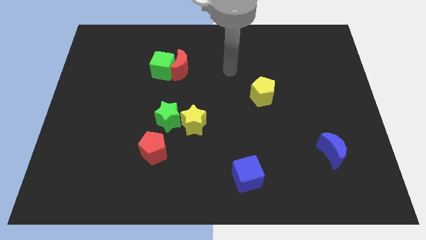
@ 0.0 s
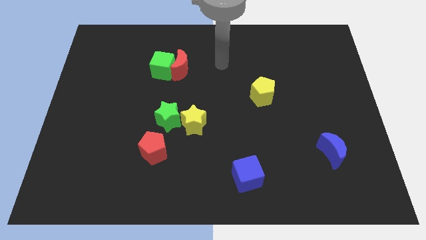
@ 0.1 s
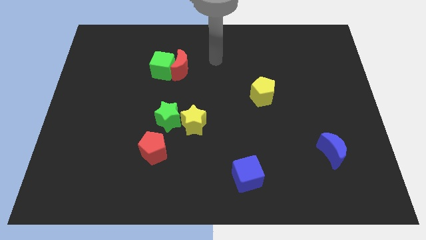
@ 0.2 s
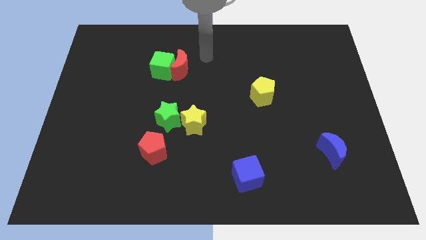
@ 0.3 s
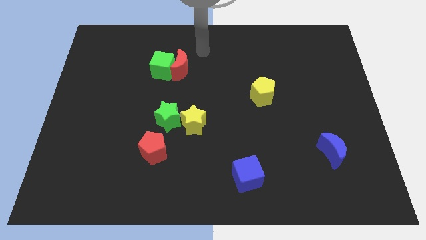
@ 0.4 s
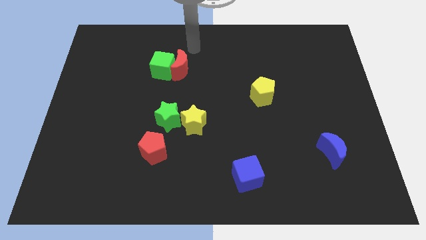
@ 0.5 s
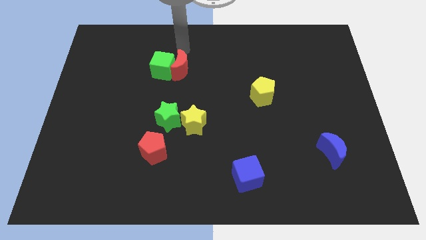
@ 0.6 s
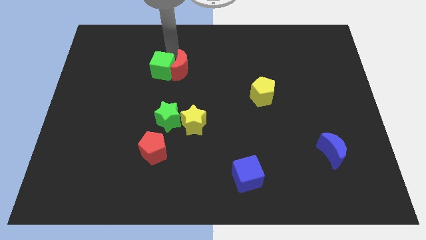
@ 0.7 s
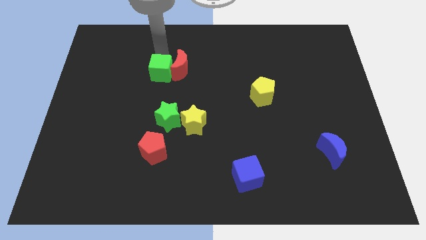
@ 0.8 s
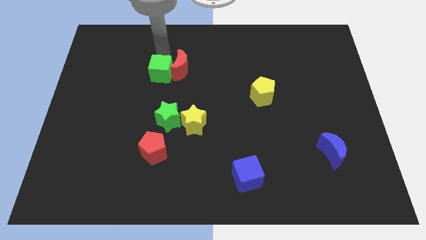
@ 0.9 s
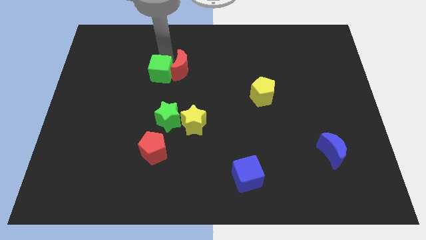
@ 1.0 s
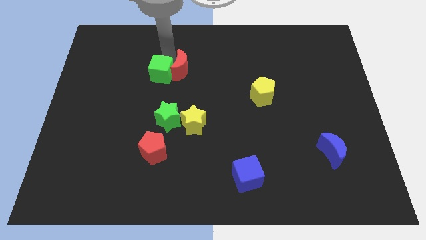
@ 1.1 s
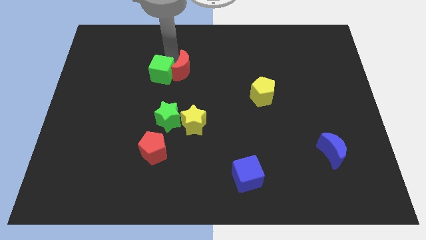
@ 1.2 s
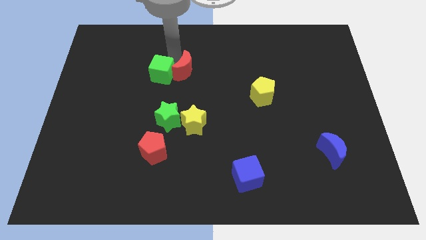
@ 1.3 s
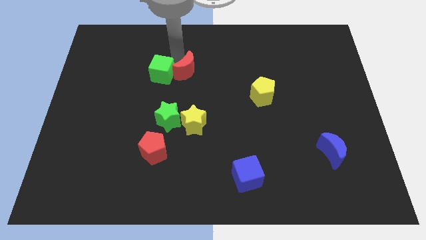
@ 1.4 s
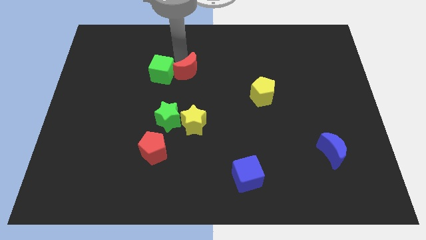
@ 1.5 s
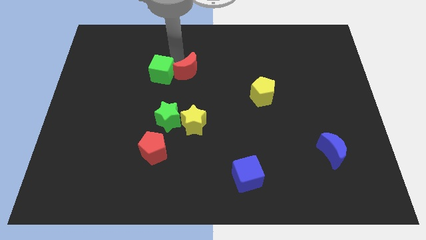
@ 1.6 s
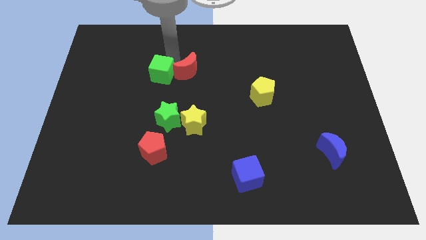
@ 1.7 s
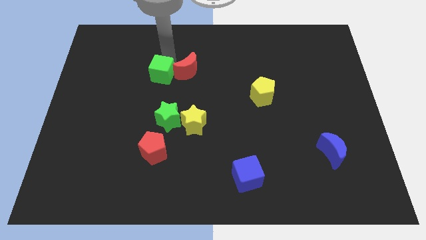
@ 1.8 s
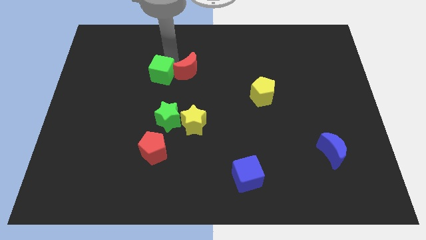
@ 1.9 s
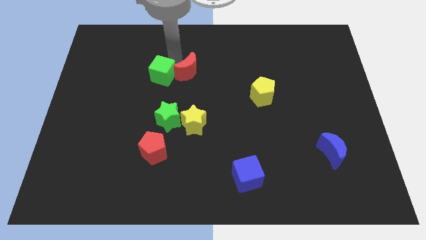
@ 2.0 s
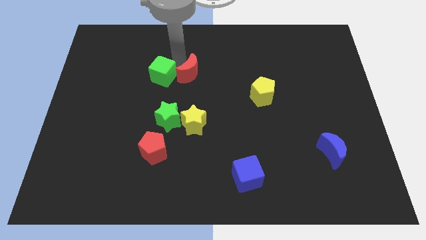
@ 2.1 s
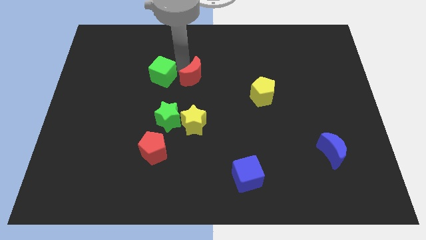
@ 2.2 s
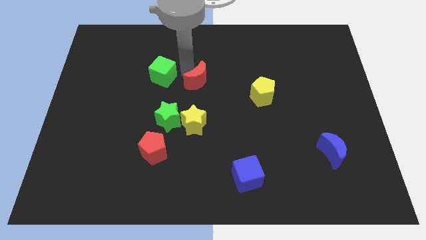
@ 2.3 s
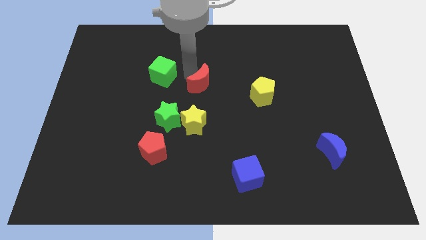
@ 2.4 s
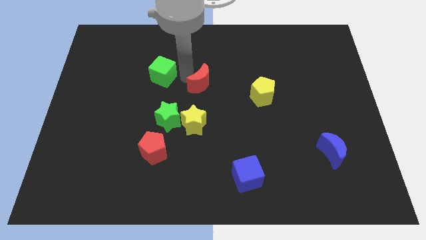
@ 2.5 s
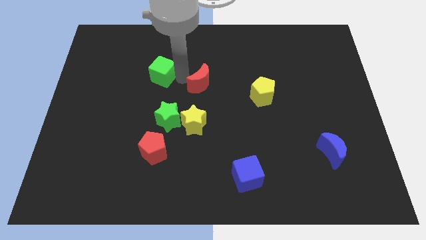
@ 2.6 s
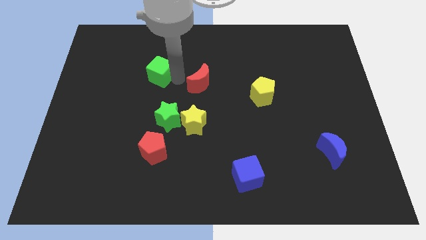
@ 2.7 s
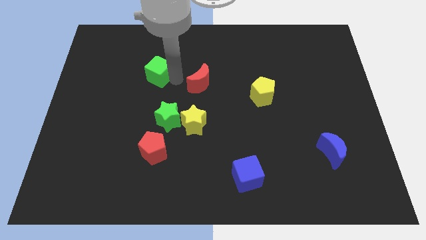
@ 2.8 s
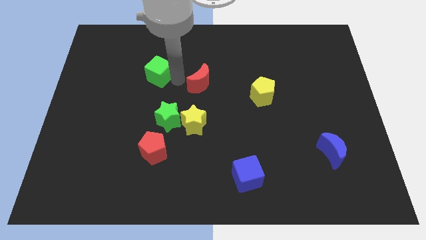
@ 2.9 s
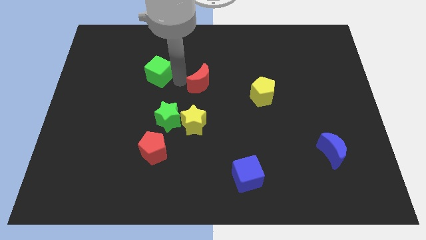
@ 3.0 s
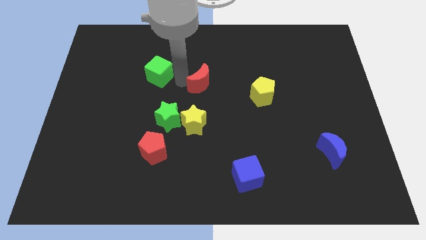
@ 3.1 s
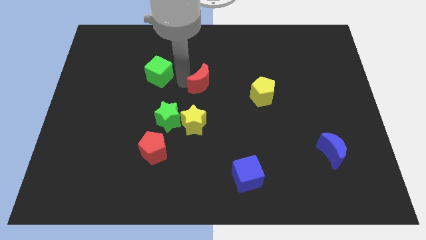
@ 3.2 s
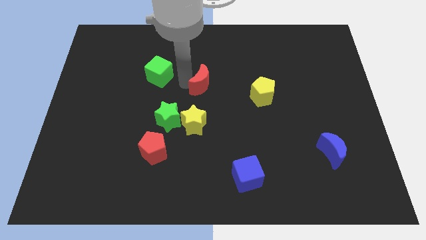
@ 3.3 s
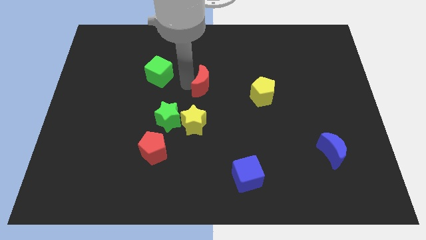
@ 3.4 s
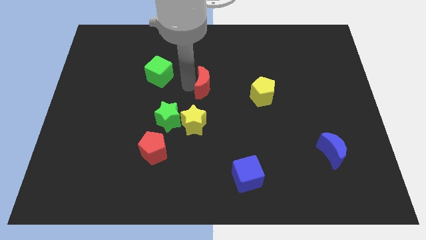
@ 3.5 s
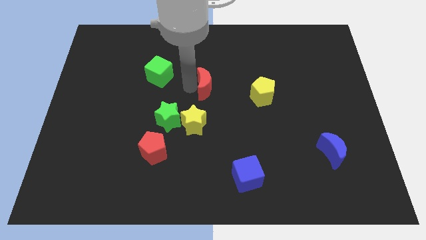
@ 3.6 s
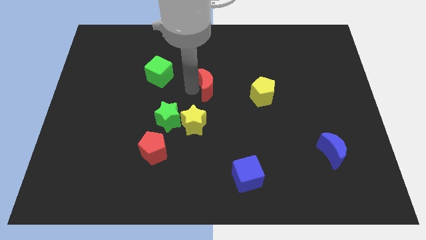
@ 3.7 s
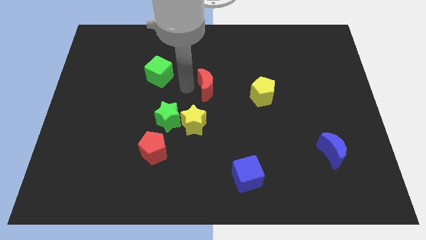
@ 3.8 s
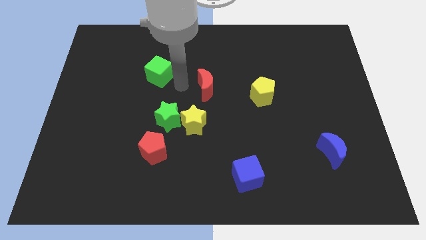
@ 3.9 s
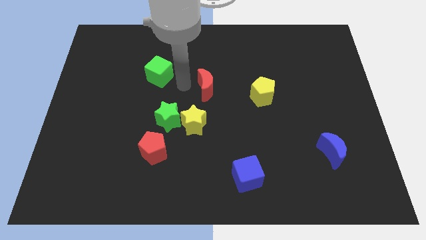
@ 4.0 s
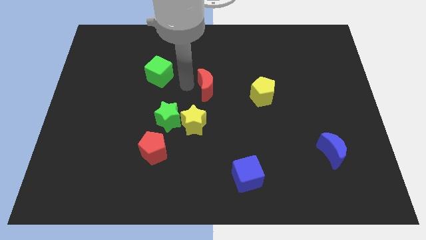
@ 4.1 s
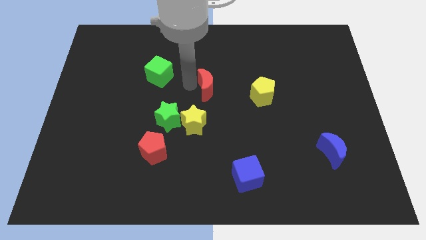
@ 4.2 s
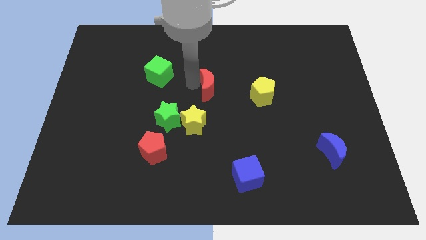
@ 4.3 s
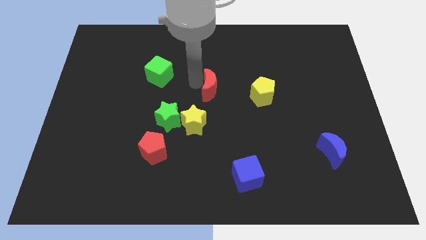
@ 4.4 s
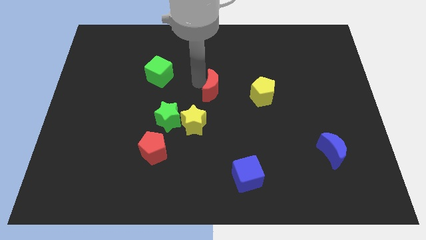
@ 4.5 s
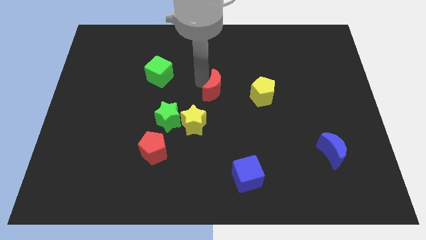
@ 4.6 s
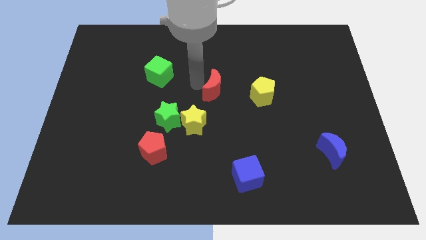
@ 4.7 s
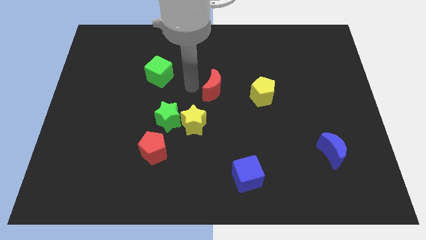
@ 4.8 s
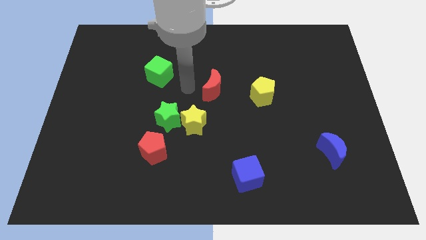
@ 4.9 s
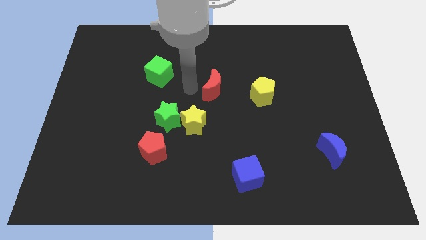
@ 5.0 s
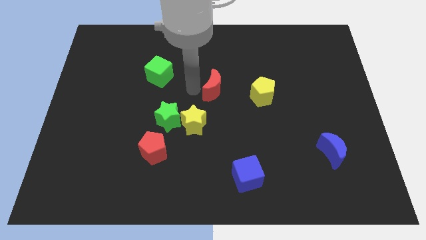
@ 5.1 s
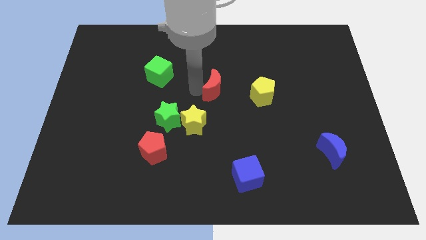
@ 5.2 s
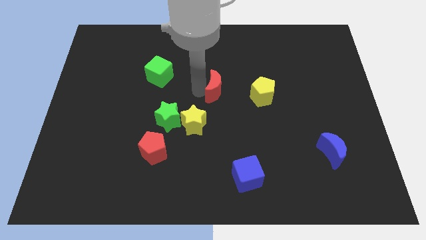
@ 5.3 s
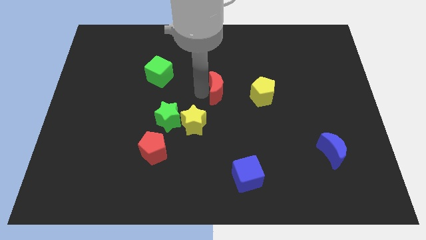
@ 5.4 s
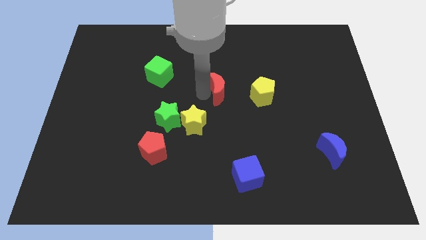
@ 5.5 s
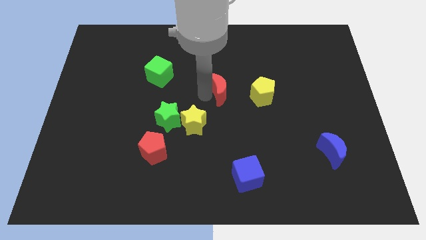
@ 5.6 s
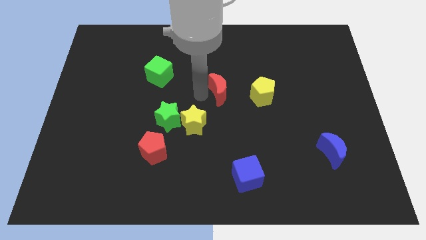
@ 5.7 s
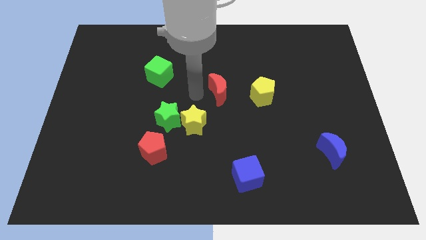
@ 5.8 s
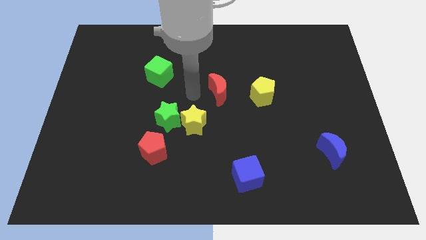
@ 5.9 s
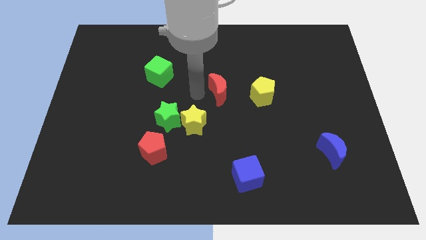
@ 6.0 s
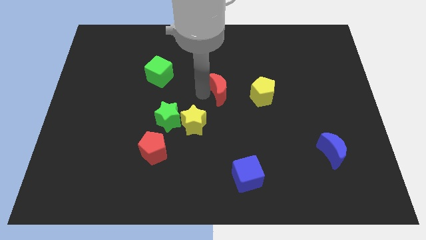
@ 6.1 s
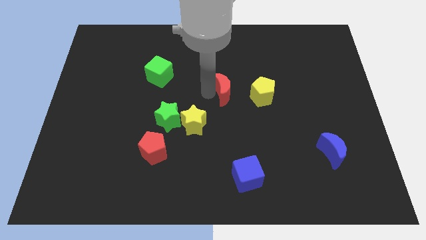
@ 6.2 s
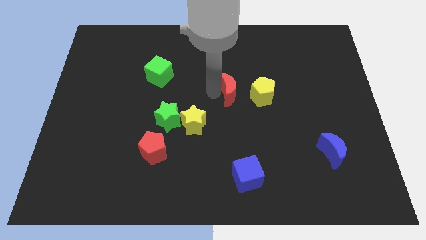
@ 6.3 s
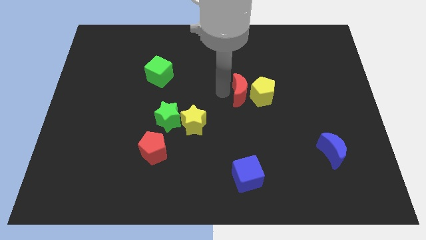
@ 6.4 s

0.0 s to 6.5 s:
push the red moon to the yellow pentagon

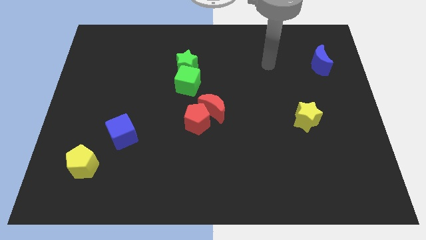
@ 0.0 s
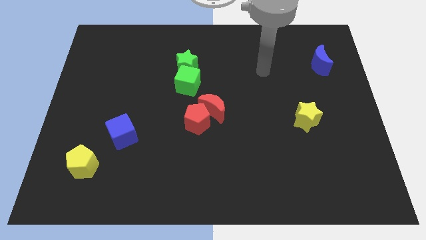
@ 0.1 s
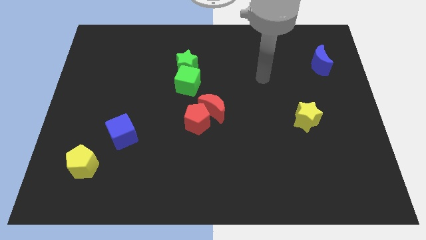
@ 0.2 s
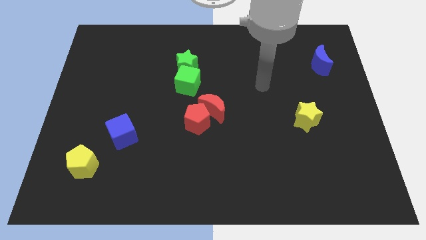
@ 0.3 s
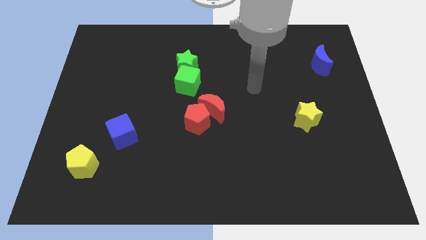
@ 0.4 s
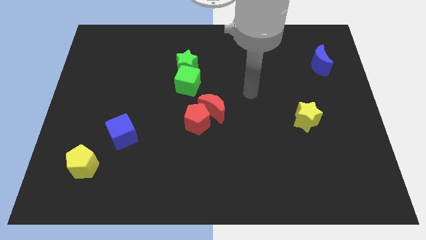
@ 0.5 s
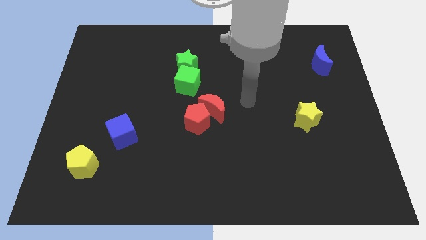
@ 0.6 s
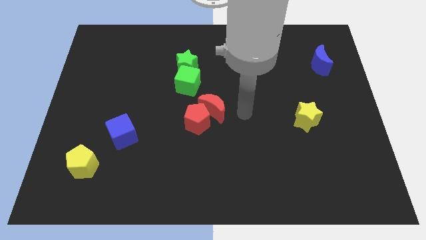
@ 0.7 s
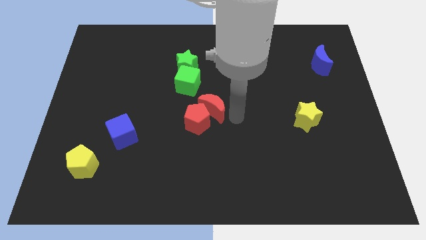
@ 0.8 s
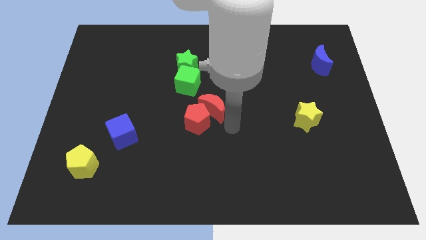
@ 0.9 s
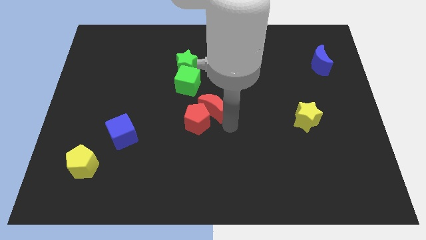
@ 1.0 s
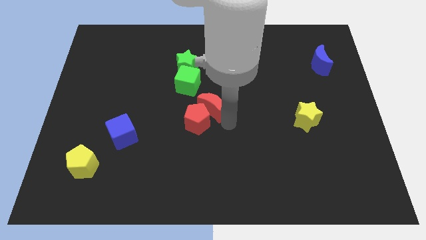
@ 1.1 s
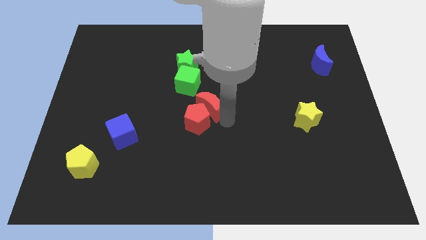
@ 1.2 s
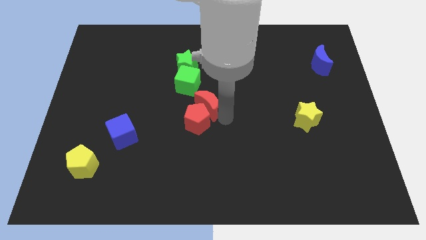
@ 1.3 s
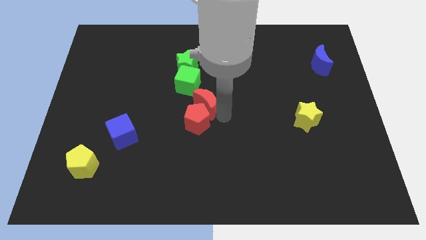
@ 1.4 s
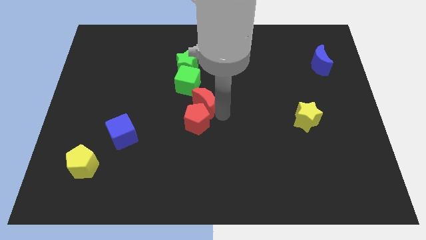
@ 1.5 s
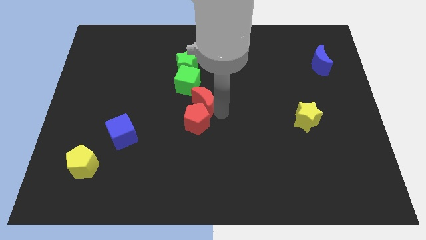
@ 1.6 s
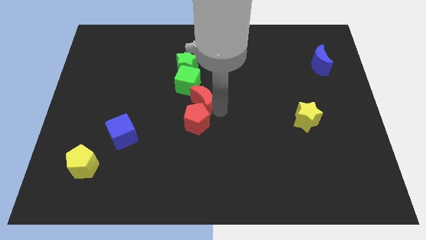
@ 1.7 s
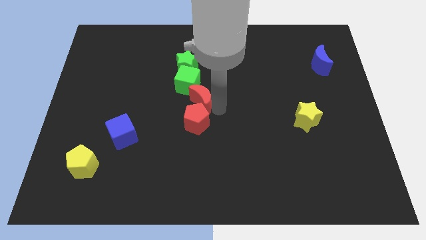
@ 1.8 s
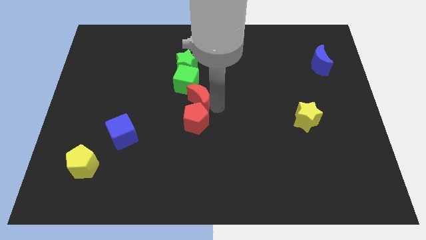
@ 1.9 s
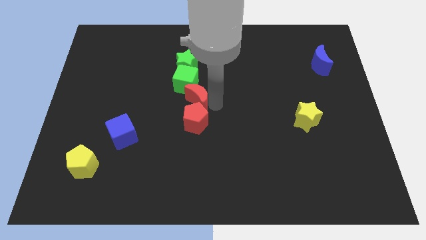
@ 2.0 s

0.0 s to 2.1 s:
slide the red moon next to the green cube
